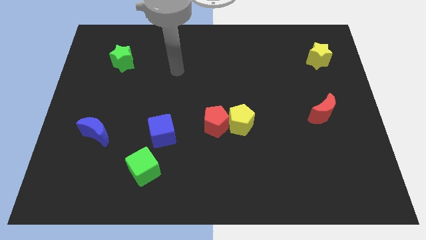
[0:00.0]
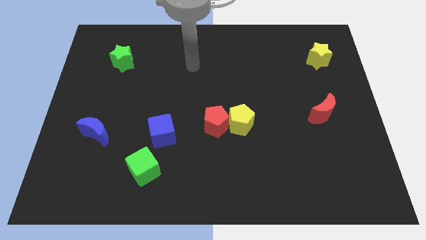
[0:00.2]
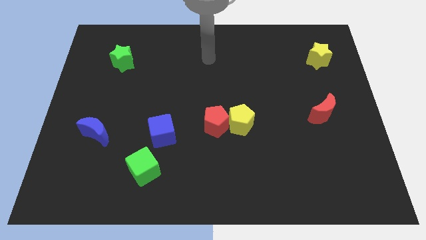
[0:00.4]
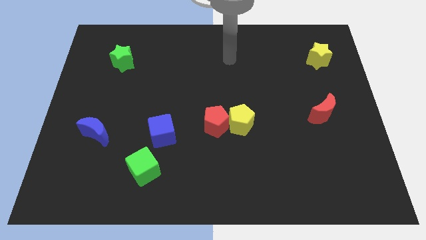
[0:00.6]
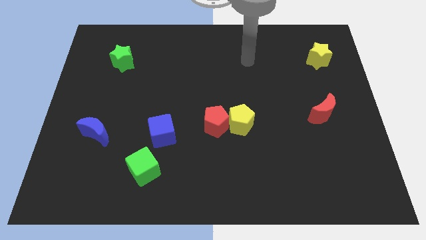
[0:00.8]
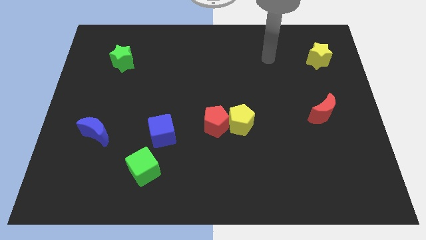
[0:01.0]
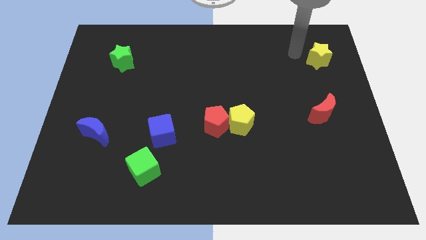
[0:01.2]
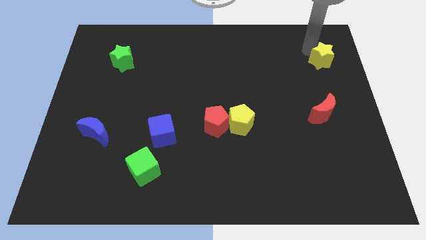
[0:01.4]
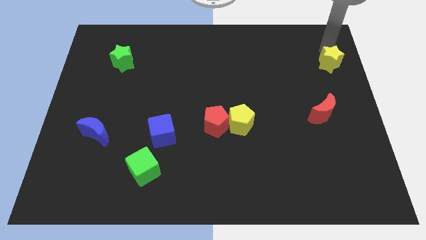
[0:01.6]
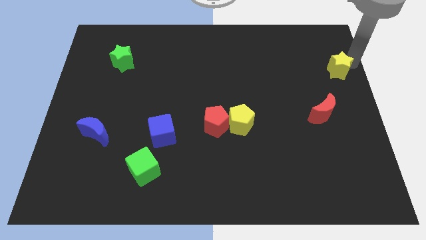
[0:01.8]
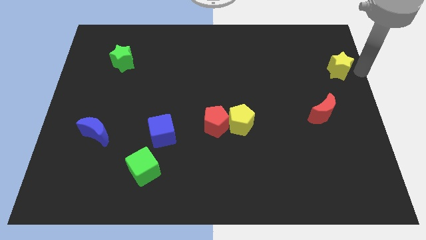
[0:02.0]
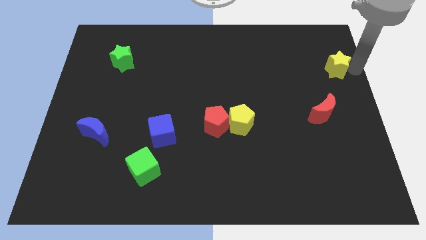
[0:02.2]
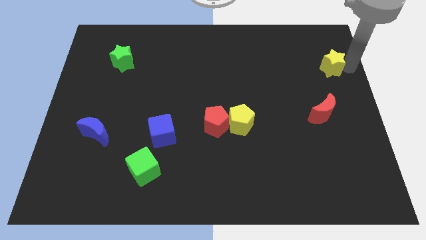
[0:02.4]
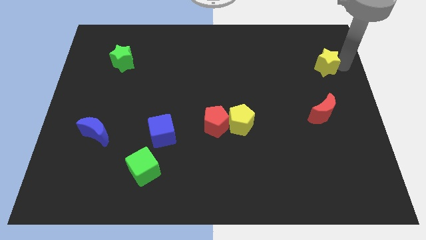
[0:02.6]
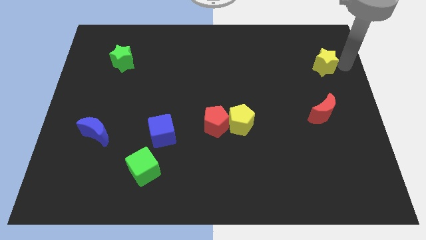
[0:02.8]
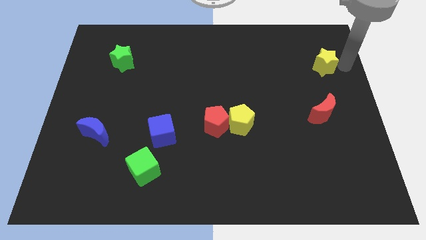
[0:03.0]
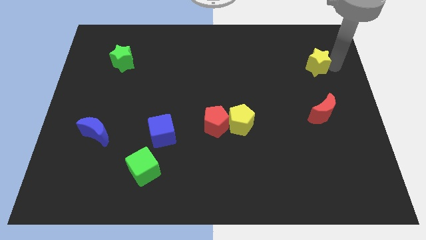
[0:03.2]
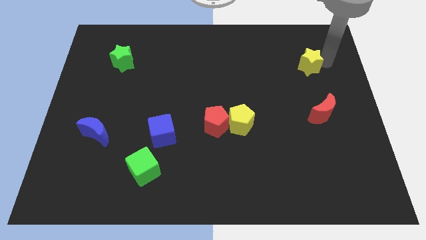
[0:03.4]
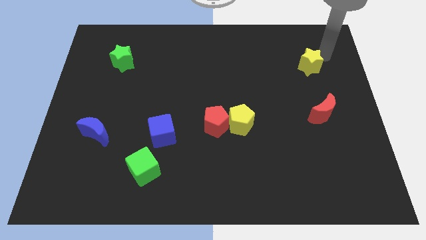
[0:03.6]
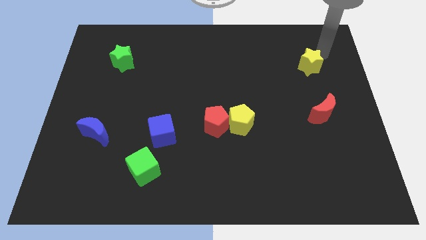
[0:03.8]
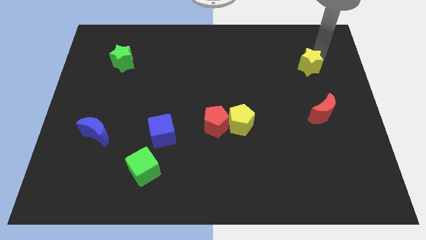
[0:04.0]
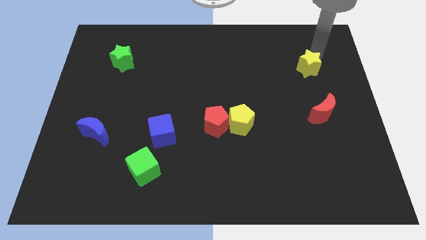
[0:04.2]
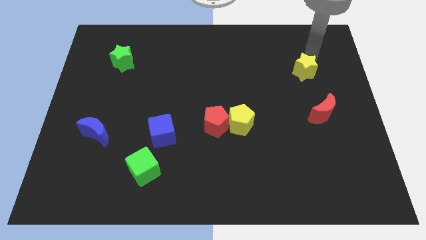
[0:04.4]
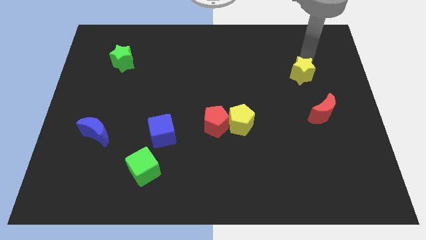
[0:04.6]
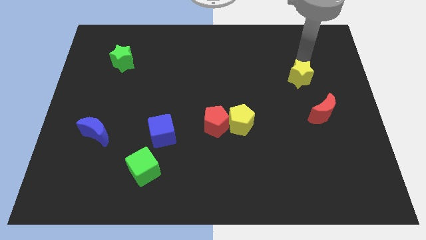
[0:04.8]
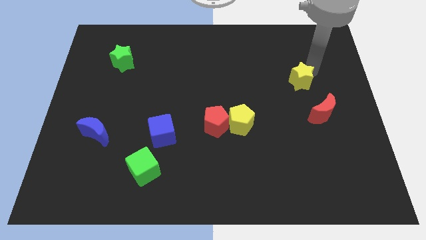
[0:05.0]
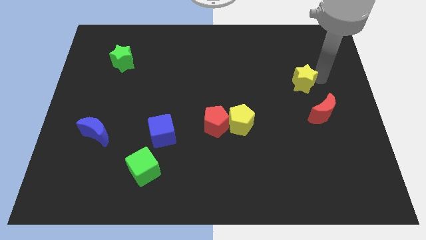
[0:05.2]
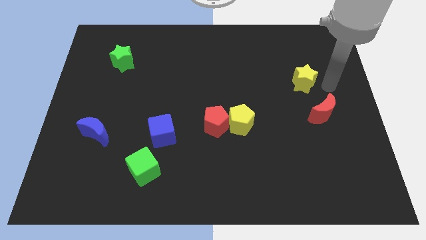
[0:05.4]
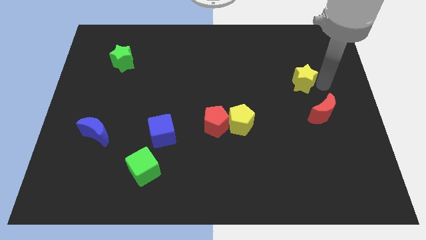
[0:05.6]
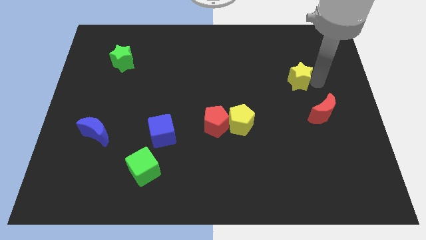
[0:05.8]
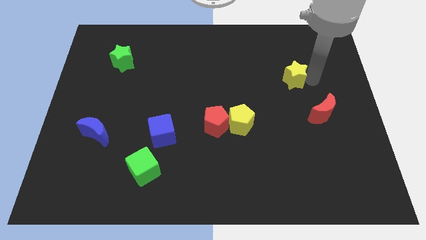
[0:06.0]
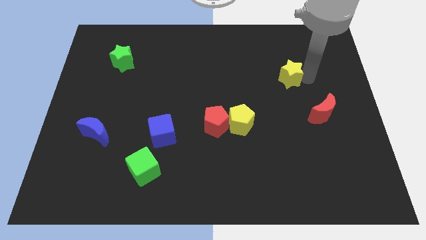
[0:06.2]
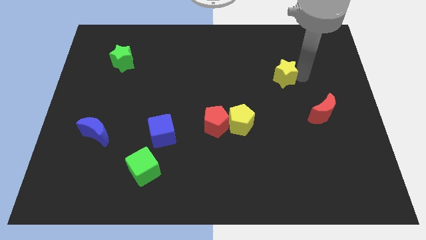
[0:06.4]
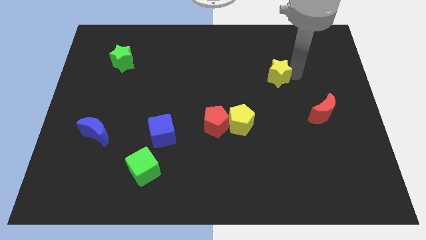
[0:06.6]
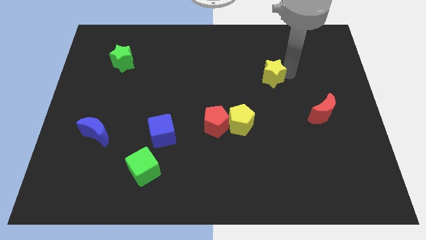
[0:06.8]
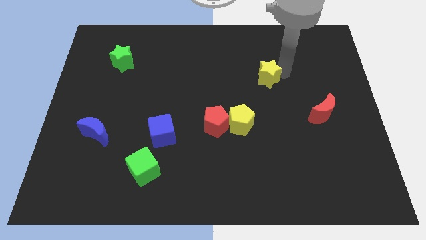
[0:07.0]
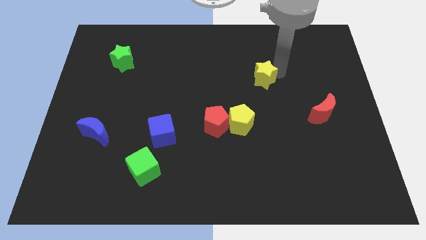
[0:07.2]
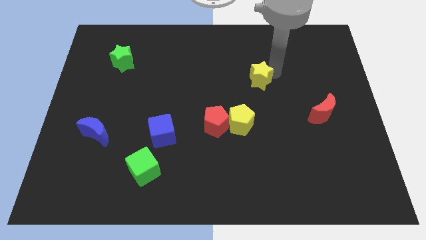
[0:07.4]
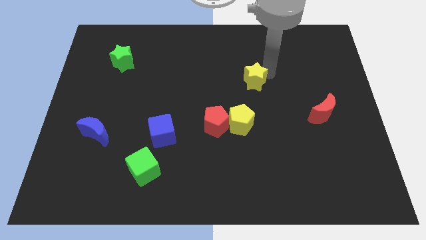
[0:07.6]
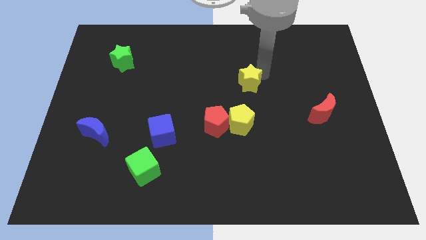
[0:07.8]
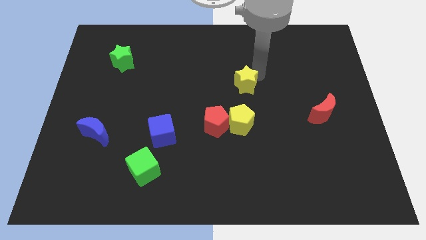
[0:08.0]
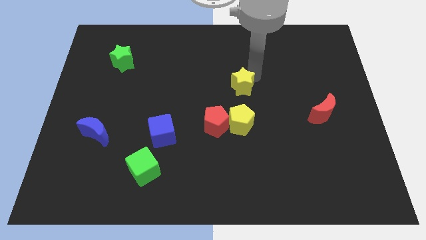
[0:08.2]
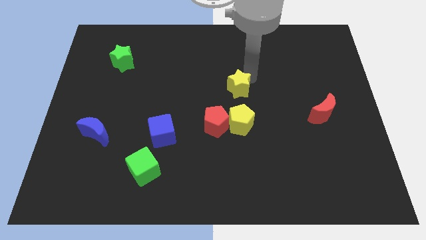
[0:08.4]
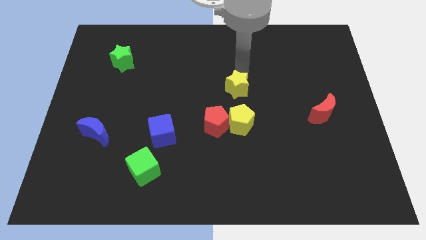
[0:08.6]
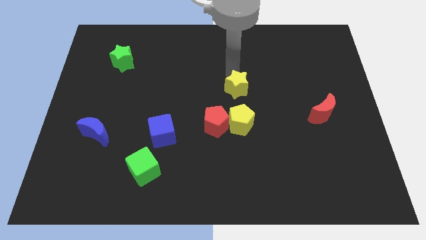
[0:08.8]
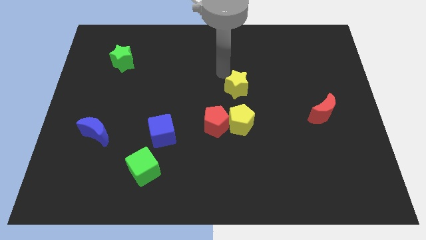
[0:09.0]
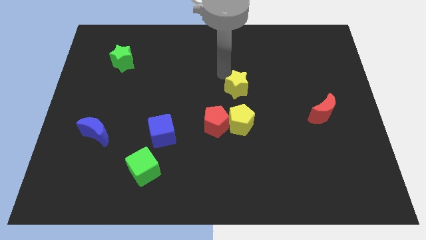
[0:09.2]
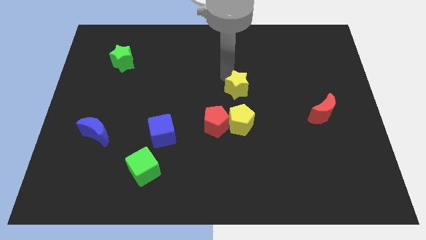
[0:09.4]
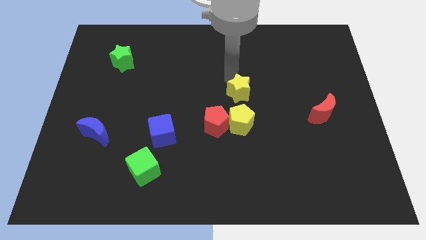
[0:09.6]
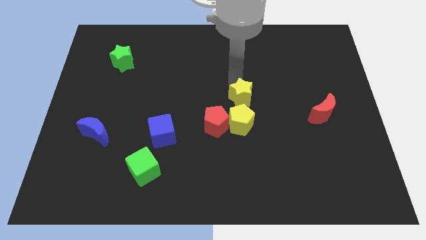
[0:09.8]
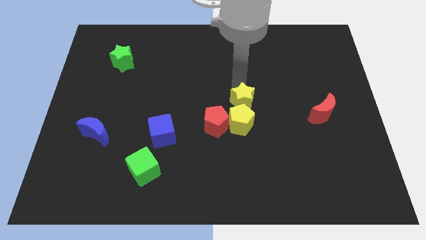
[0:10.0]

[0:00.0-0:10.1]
push the yellow star diagonally up and to the left of the yellow pentagon

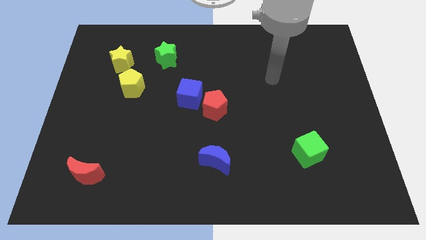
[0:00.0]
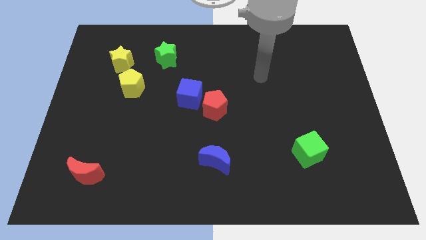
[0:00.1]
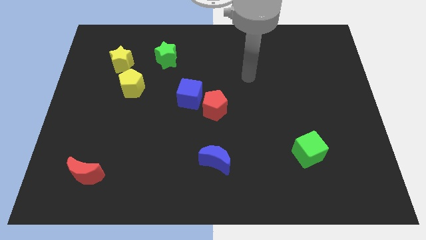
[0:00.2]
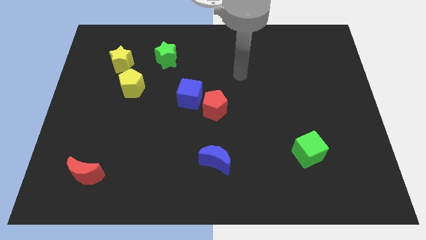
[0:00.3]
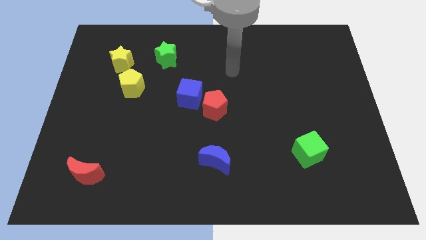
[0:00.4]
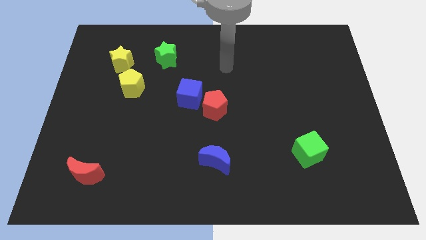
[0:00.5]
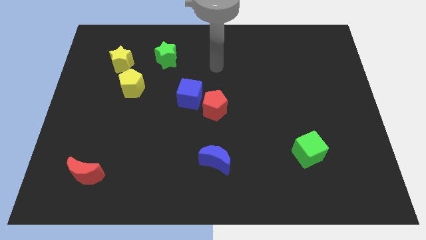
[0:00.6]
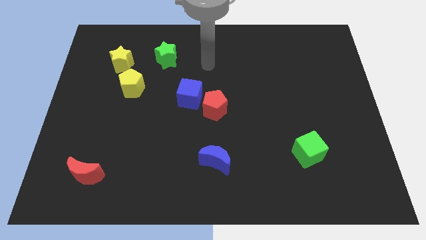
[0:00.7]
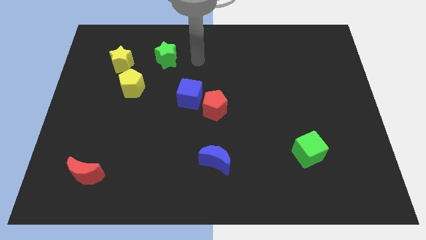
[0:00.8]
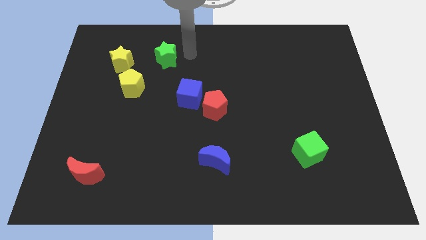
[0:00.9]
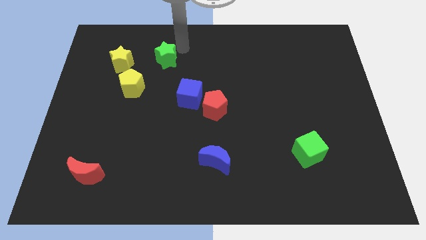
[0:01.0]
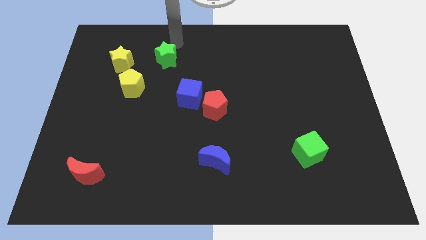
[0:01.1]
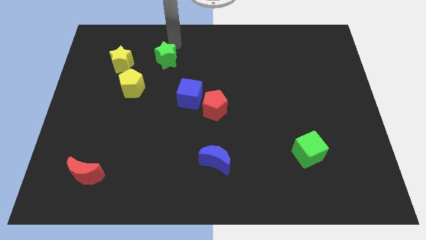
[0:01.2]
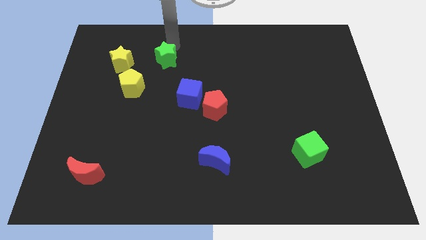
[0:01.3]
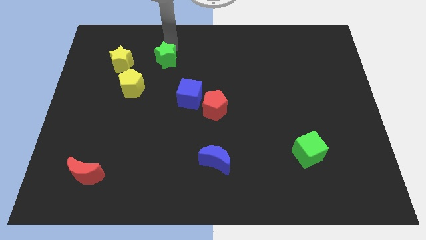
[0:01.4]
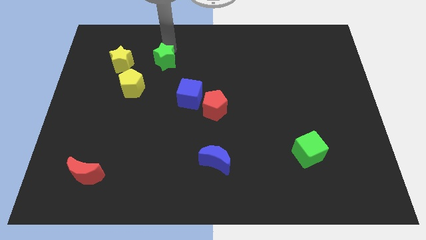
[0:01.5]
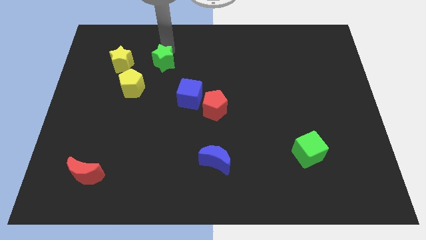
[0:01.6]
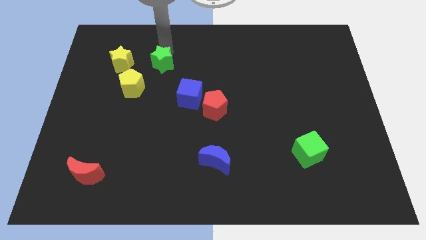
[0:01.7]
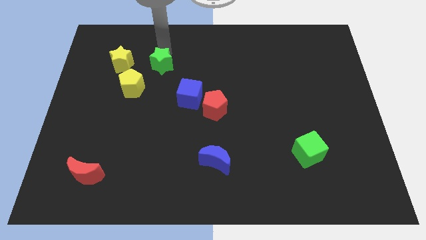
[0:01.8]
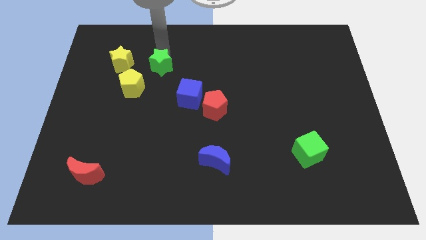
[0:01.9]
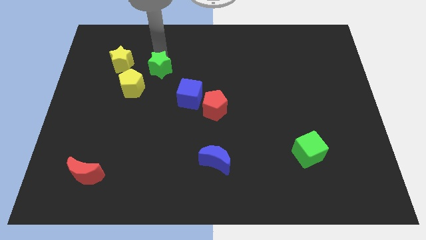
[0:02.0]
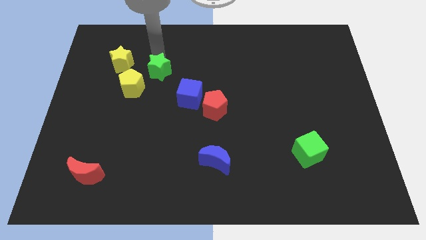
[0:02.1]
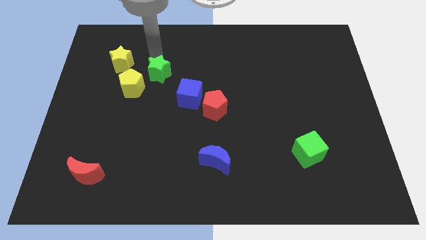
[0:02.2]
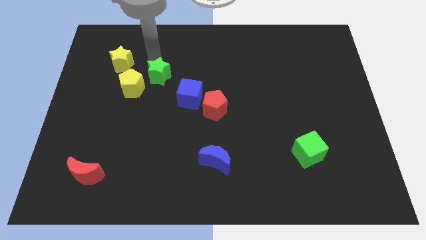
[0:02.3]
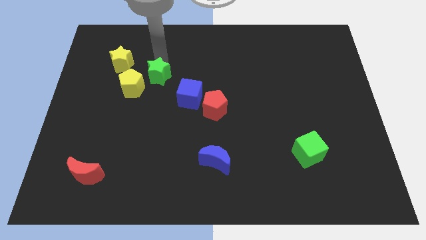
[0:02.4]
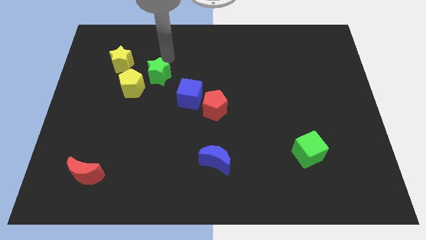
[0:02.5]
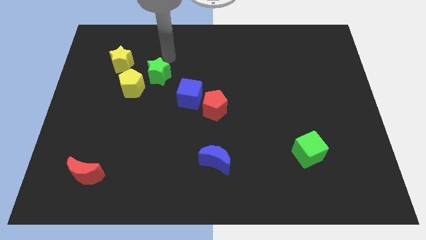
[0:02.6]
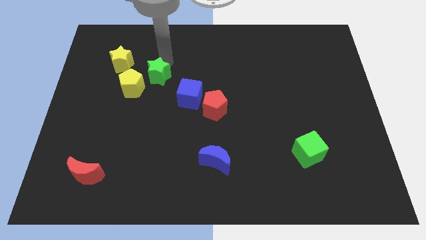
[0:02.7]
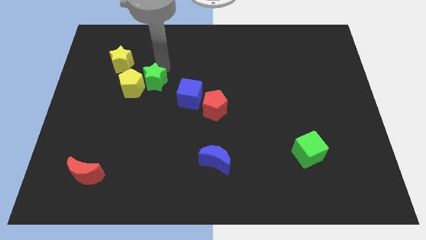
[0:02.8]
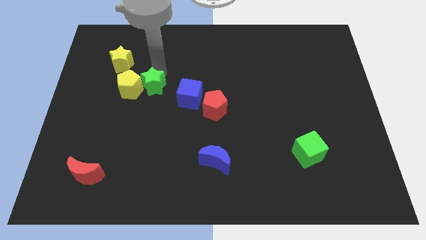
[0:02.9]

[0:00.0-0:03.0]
slide the green star just left of the blue cube
